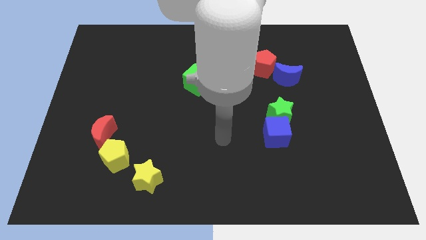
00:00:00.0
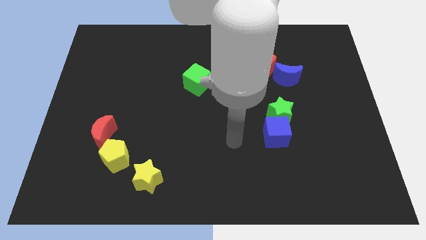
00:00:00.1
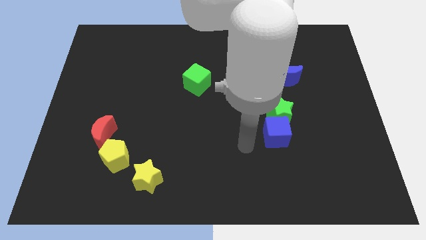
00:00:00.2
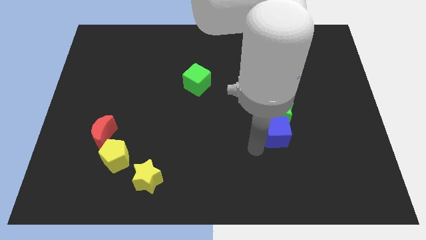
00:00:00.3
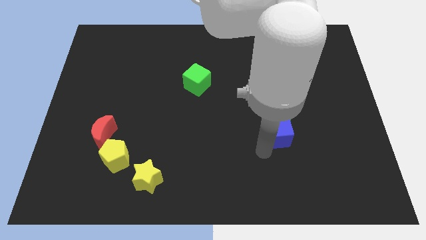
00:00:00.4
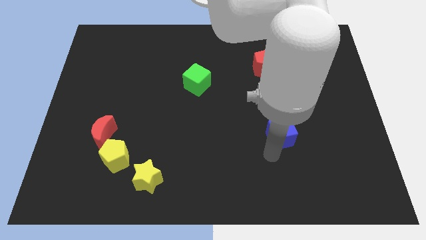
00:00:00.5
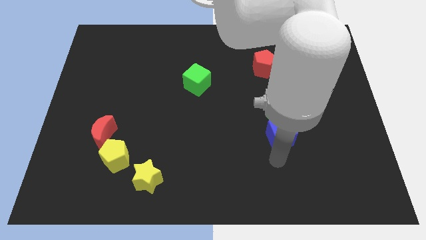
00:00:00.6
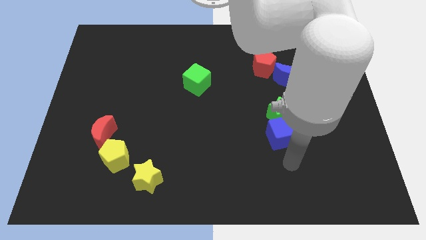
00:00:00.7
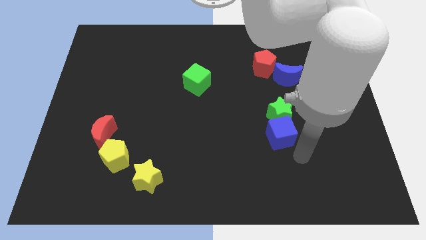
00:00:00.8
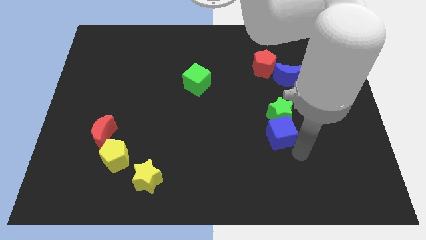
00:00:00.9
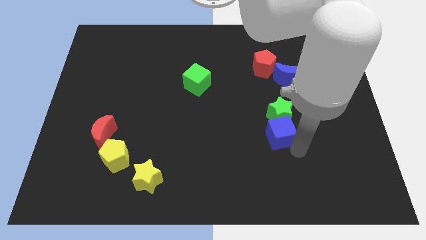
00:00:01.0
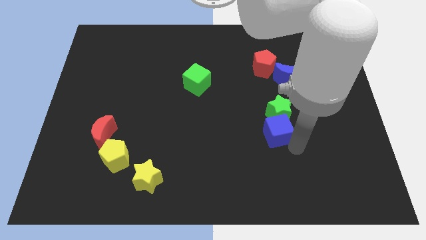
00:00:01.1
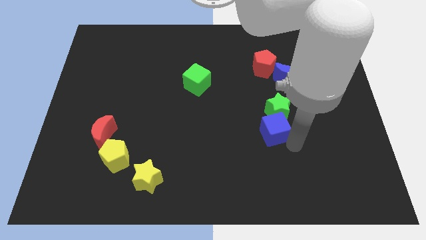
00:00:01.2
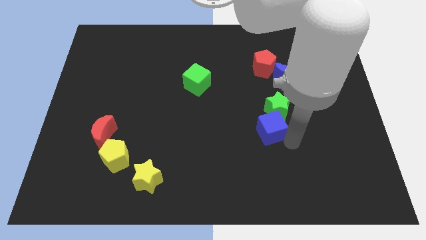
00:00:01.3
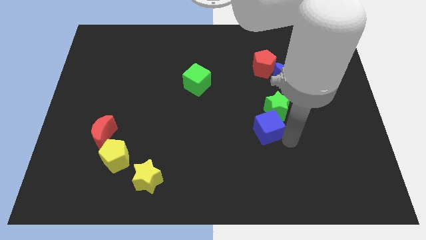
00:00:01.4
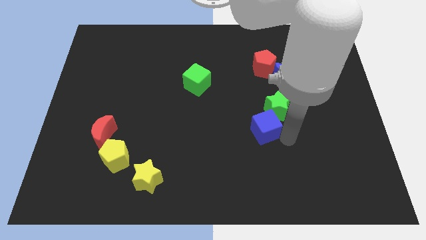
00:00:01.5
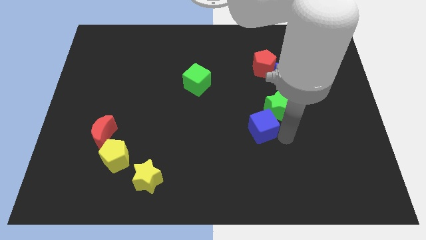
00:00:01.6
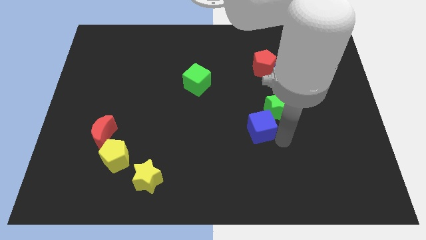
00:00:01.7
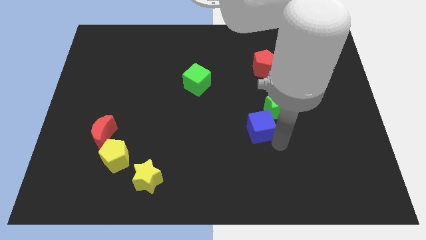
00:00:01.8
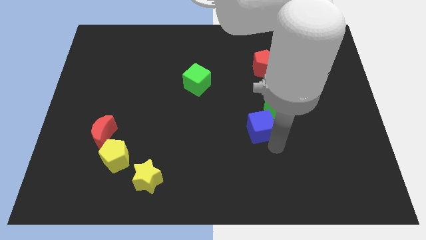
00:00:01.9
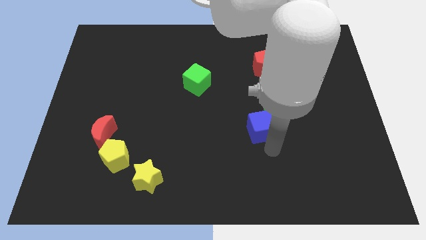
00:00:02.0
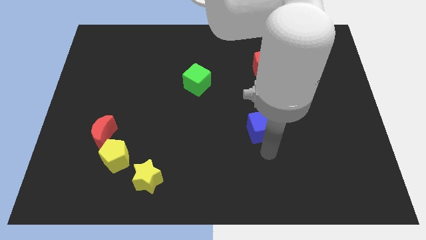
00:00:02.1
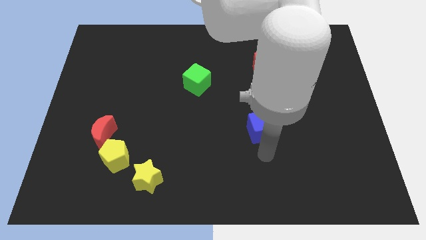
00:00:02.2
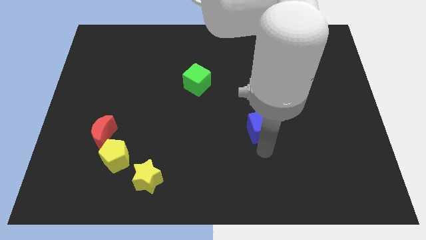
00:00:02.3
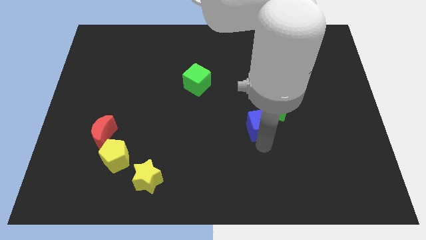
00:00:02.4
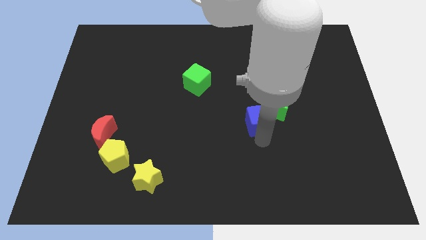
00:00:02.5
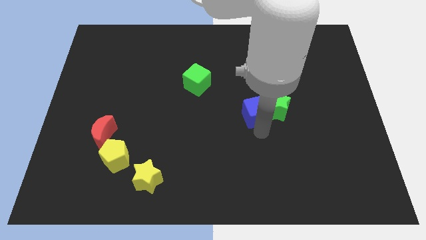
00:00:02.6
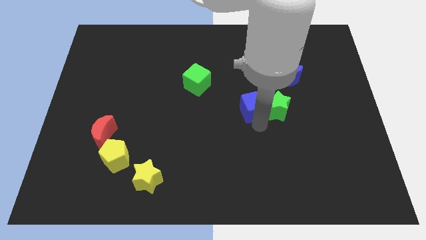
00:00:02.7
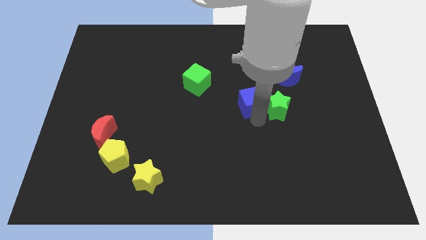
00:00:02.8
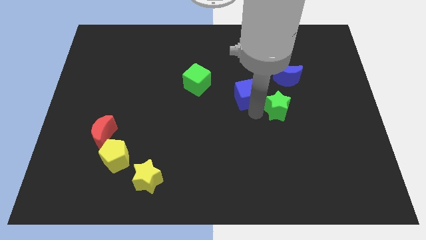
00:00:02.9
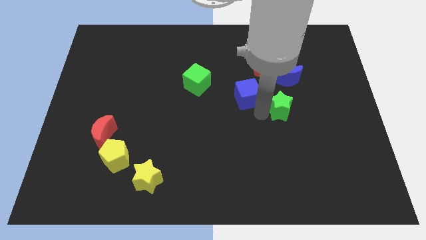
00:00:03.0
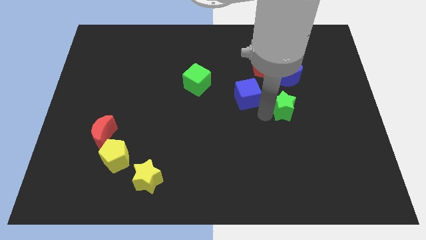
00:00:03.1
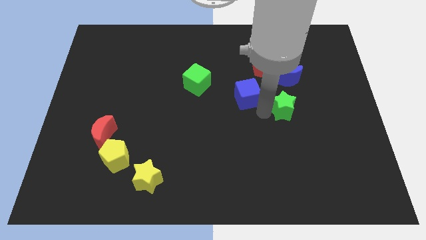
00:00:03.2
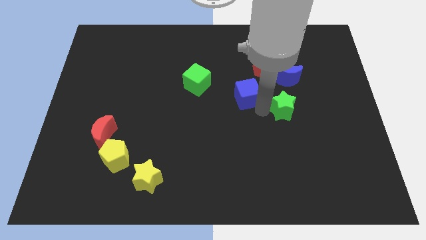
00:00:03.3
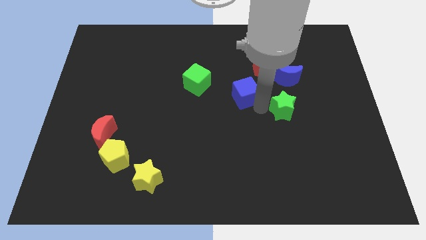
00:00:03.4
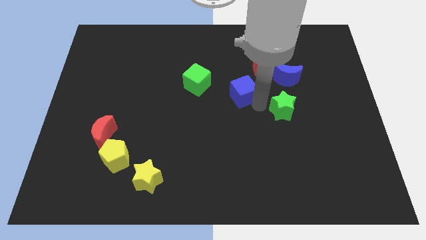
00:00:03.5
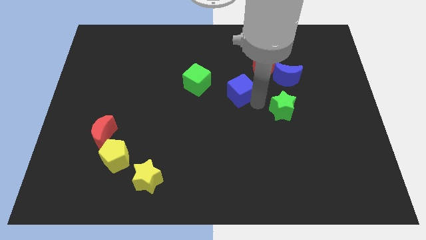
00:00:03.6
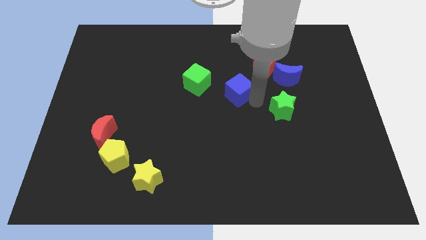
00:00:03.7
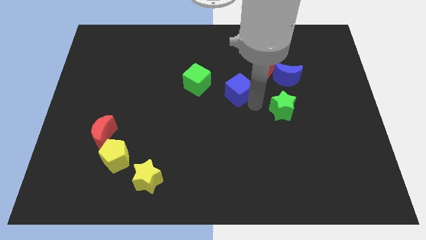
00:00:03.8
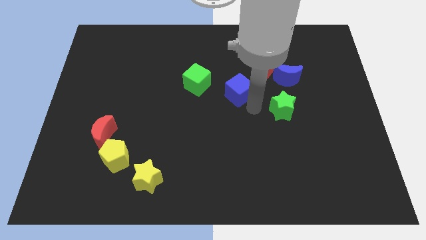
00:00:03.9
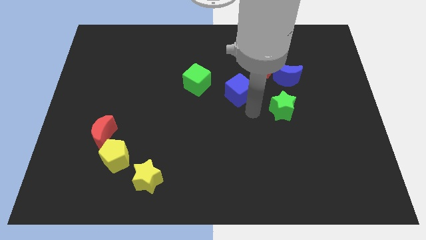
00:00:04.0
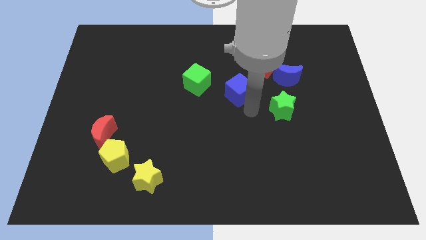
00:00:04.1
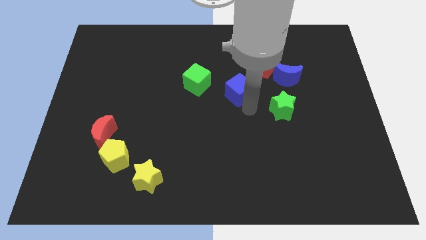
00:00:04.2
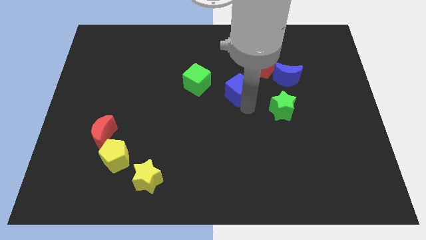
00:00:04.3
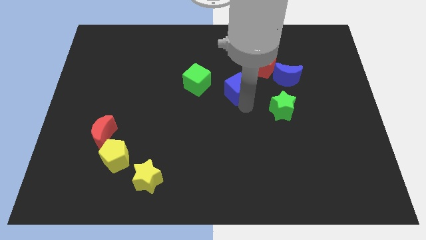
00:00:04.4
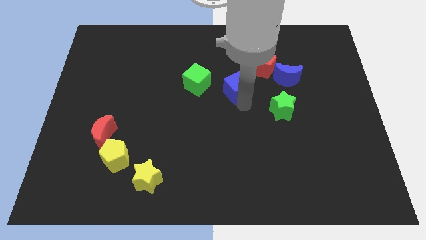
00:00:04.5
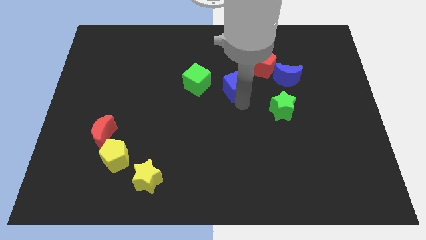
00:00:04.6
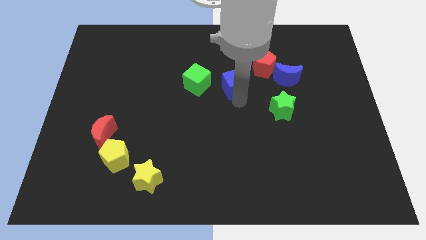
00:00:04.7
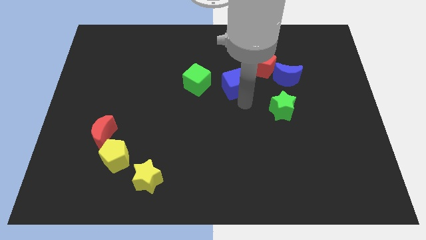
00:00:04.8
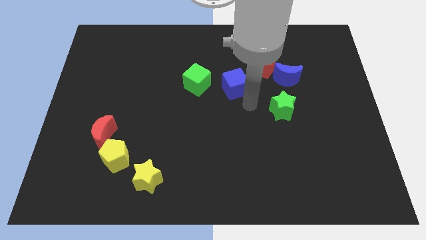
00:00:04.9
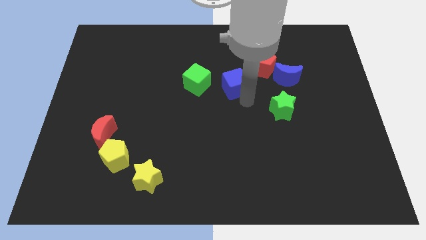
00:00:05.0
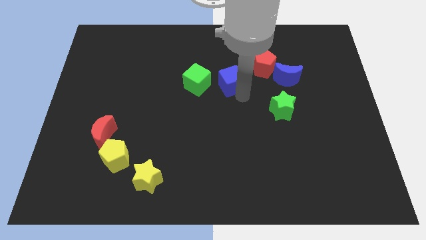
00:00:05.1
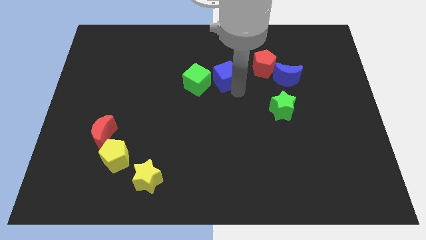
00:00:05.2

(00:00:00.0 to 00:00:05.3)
move the blue cube diagonally up and to the right of the green cube

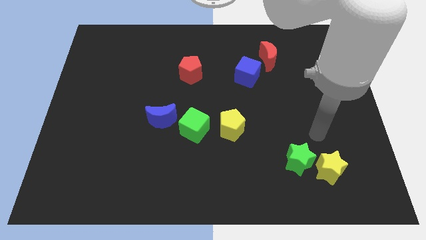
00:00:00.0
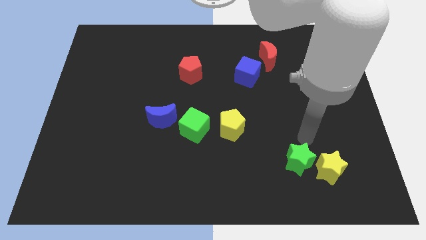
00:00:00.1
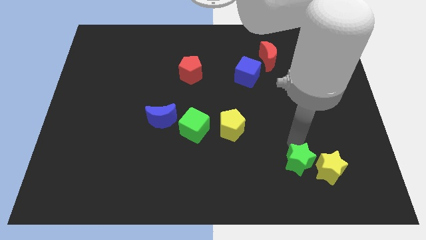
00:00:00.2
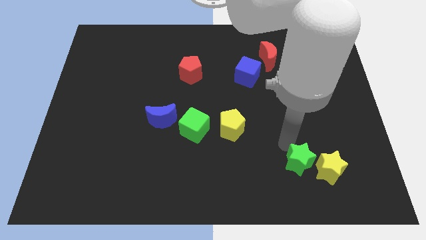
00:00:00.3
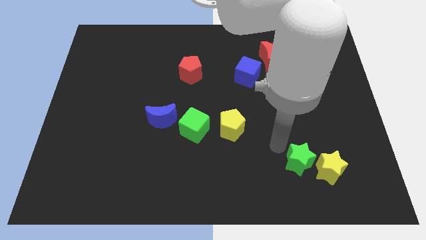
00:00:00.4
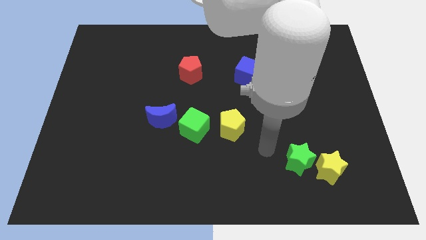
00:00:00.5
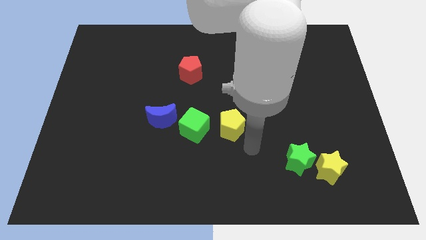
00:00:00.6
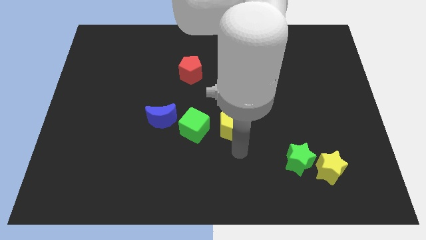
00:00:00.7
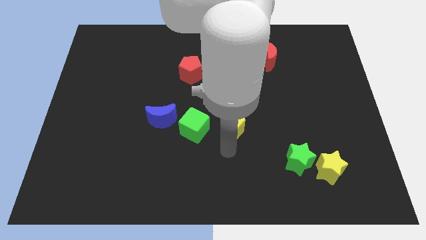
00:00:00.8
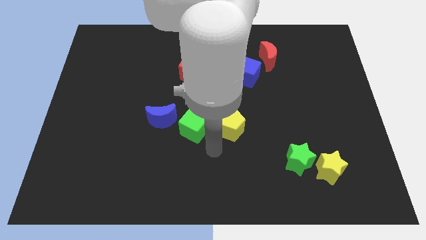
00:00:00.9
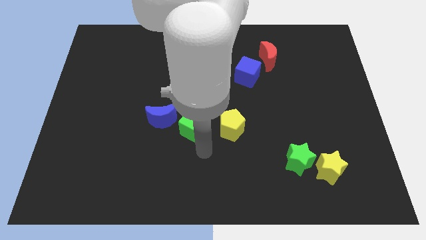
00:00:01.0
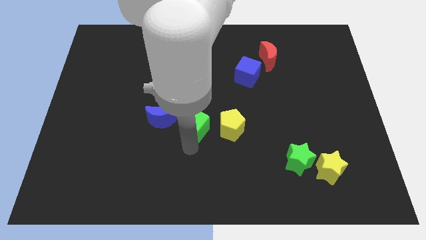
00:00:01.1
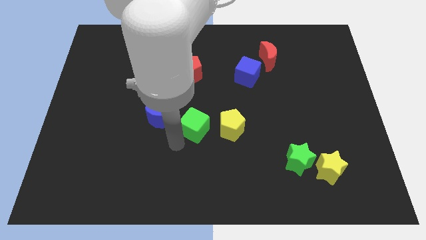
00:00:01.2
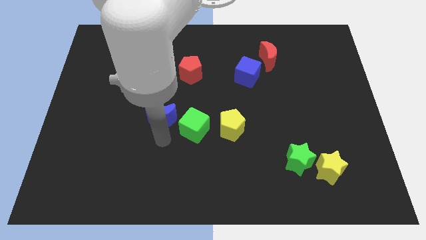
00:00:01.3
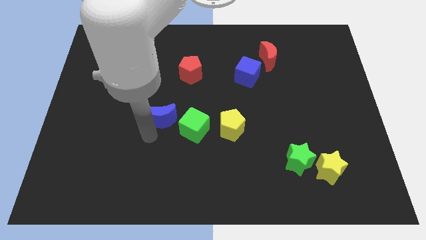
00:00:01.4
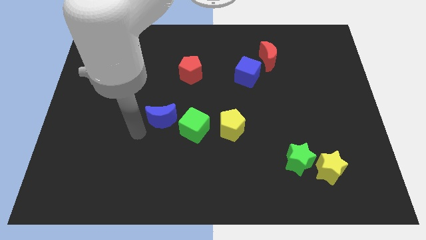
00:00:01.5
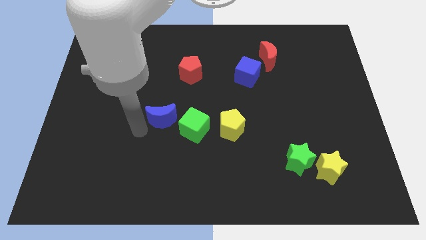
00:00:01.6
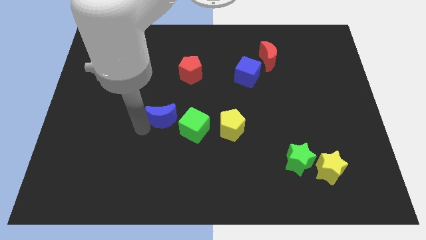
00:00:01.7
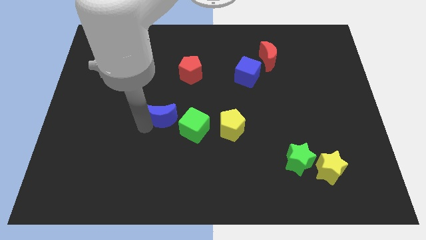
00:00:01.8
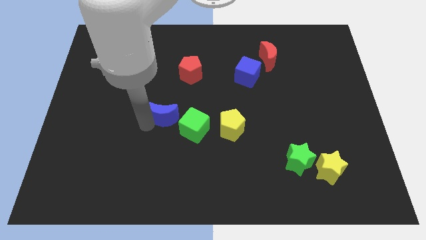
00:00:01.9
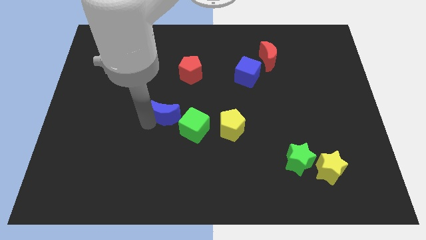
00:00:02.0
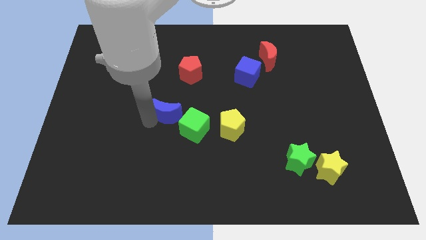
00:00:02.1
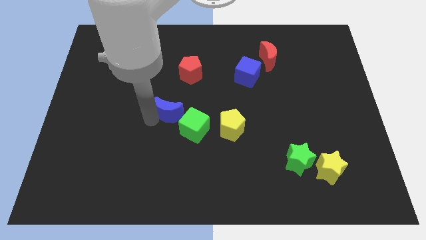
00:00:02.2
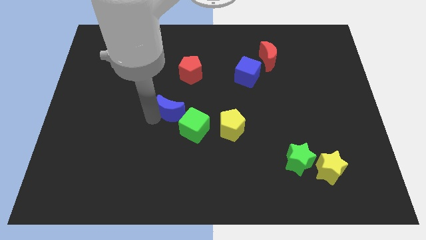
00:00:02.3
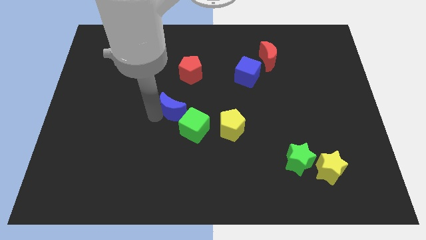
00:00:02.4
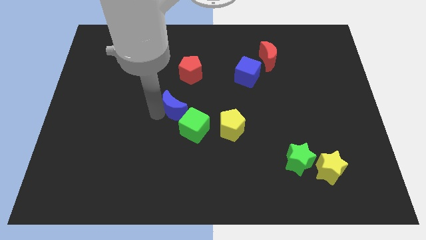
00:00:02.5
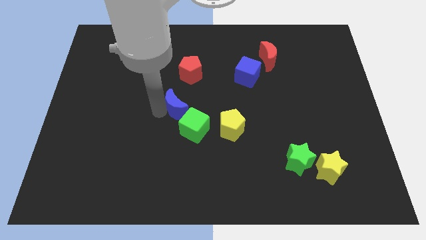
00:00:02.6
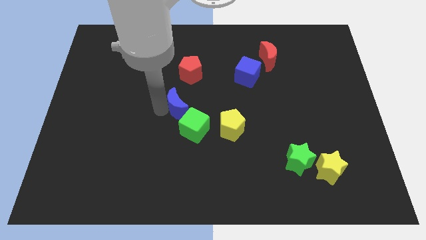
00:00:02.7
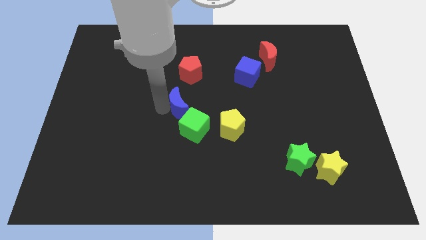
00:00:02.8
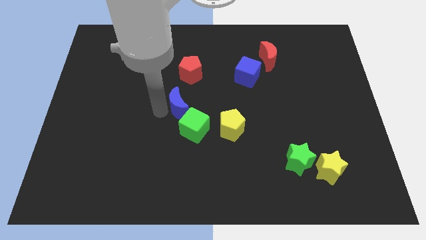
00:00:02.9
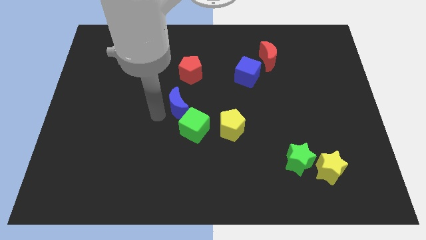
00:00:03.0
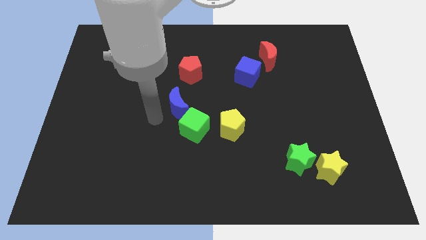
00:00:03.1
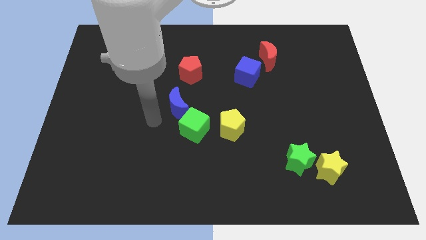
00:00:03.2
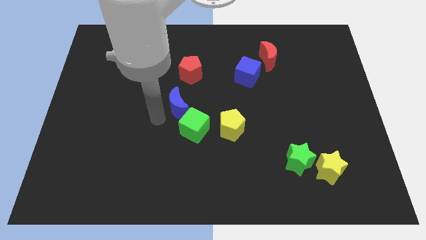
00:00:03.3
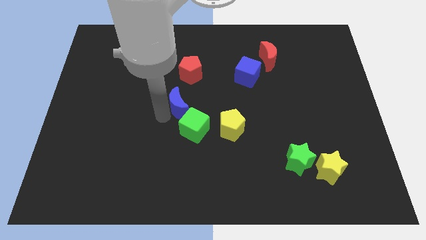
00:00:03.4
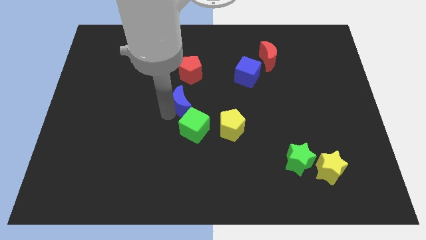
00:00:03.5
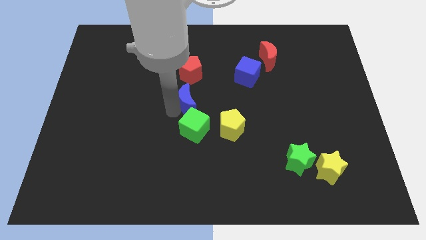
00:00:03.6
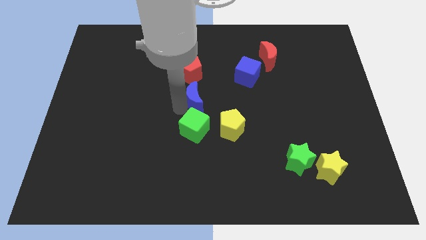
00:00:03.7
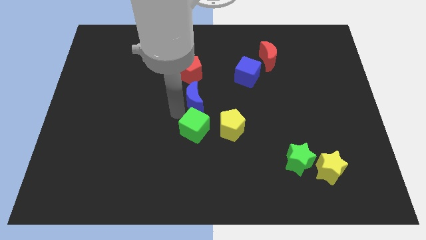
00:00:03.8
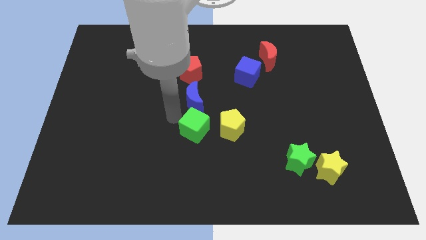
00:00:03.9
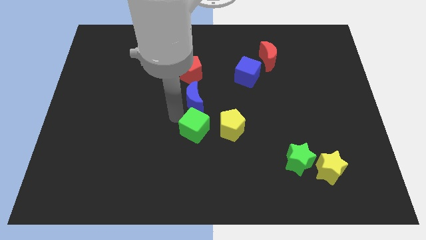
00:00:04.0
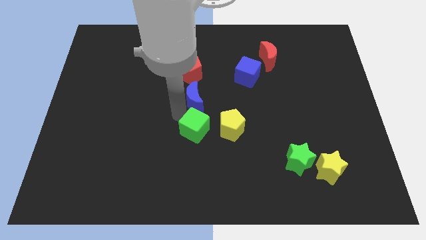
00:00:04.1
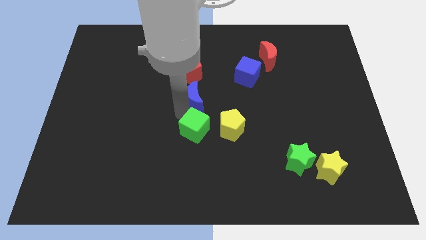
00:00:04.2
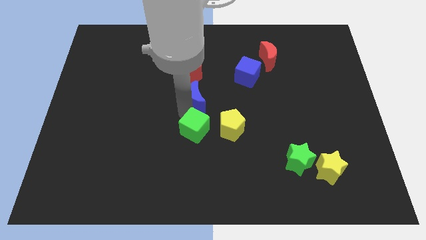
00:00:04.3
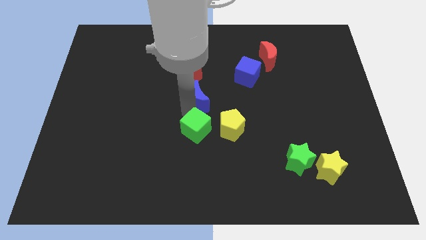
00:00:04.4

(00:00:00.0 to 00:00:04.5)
move the blue moon to the bottom right side of the red pentagon
